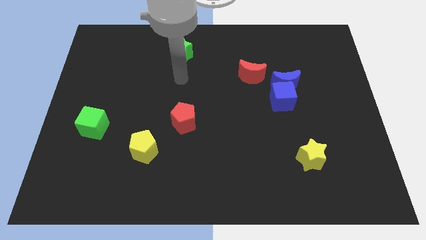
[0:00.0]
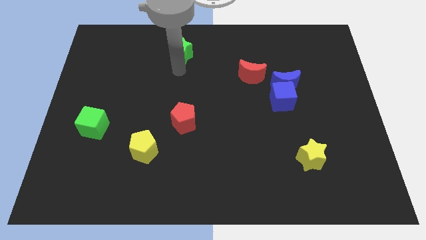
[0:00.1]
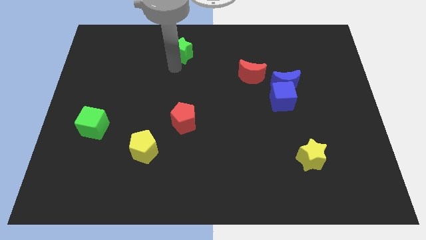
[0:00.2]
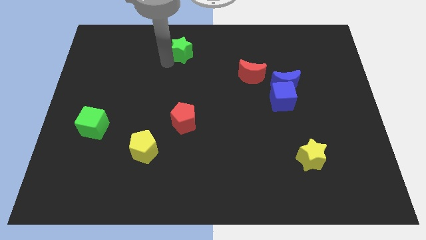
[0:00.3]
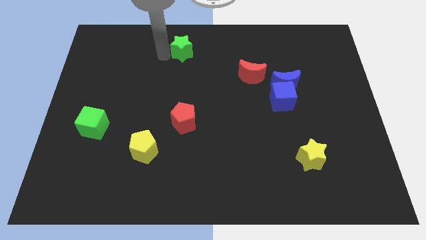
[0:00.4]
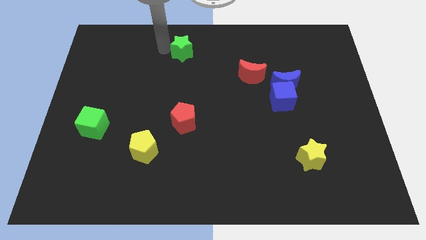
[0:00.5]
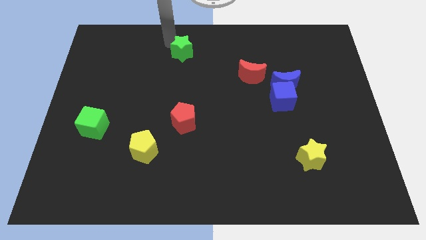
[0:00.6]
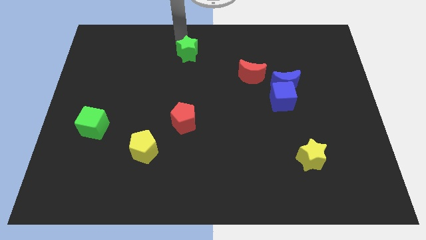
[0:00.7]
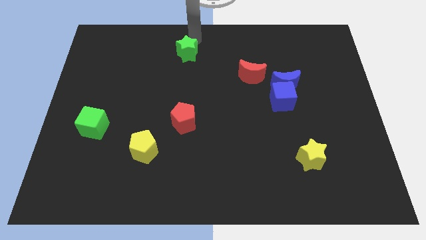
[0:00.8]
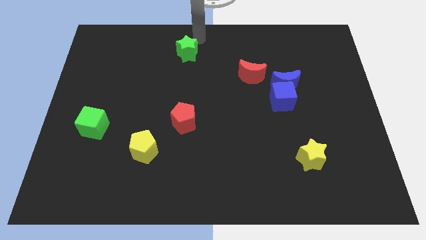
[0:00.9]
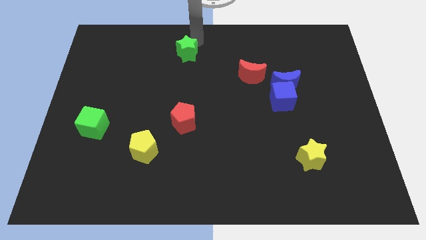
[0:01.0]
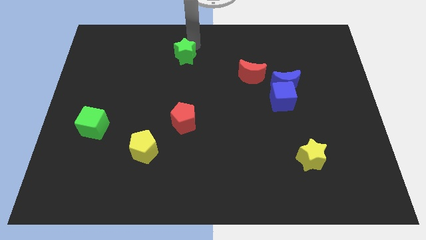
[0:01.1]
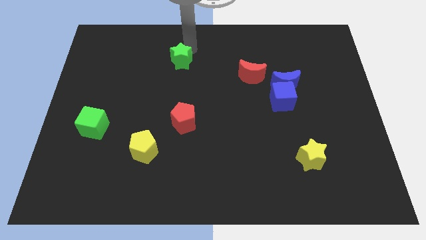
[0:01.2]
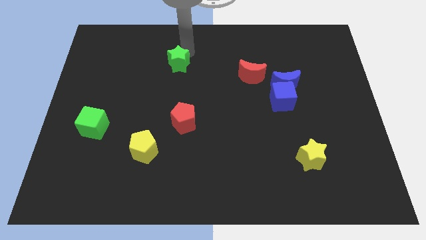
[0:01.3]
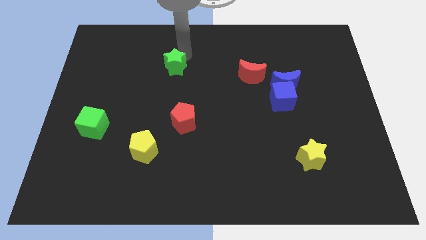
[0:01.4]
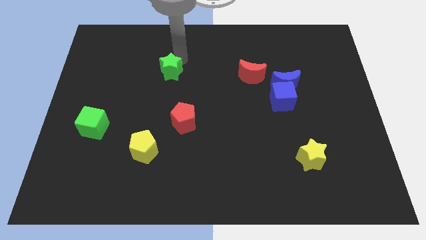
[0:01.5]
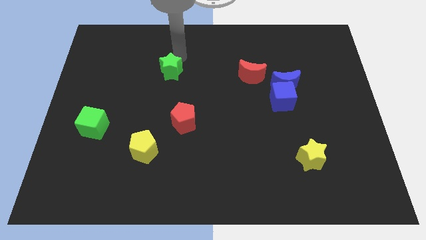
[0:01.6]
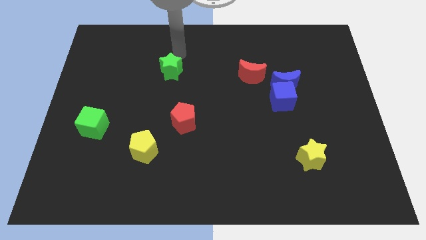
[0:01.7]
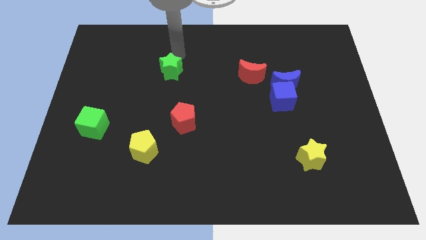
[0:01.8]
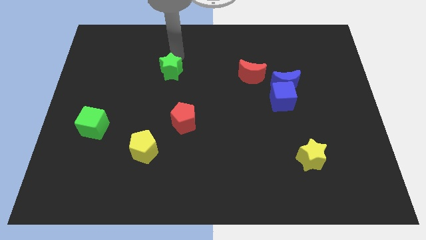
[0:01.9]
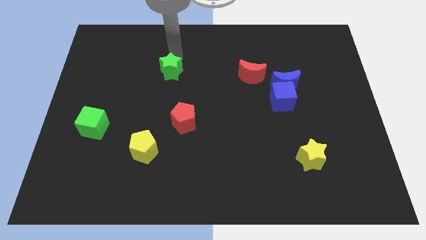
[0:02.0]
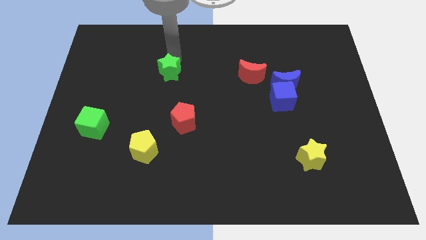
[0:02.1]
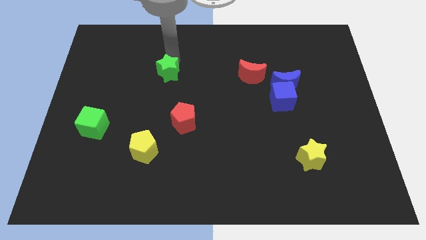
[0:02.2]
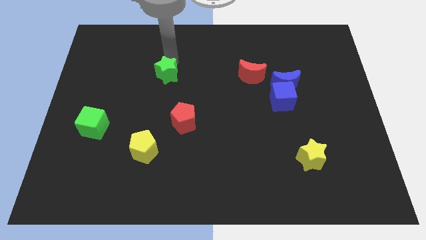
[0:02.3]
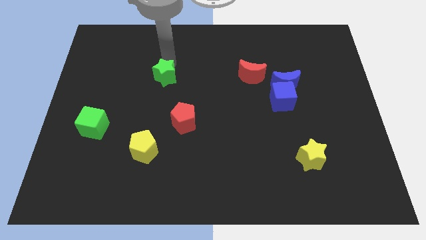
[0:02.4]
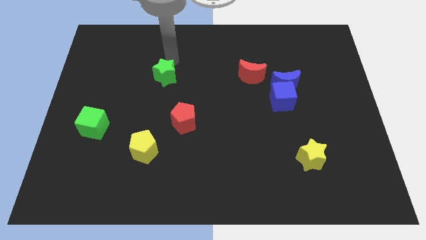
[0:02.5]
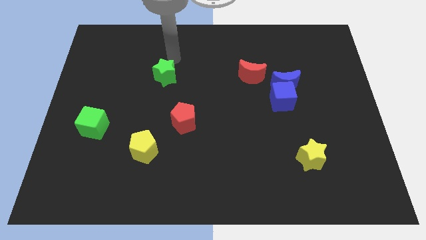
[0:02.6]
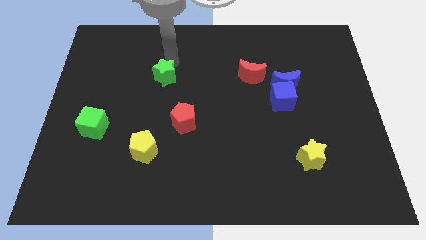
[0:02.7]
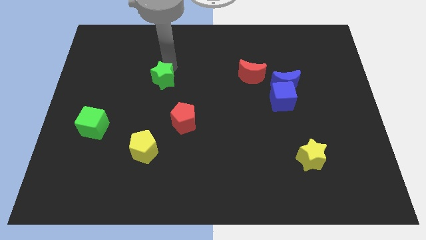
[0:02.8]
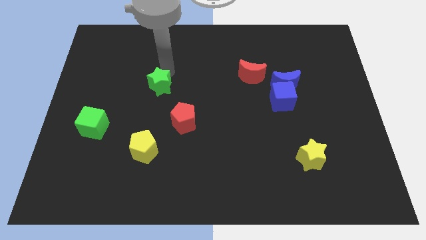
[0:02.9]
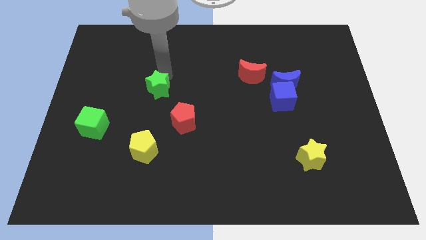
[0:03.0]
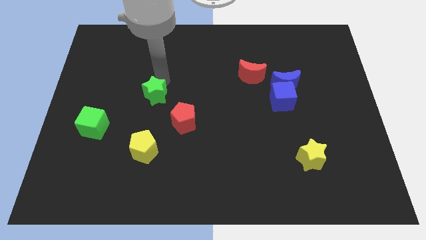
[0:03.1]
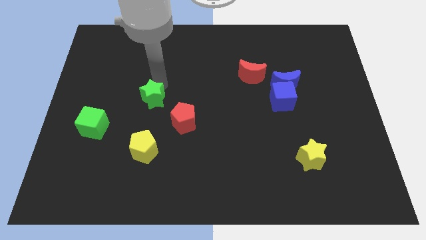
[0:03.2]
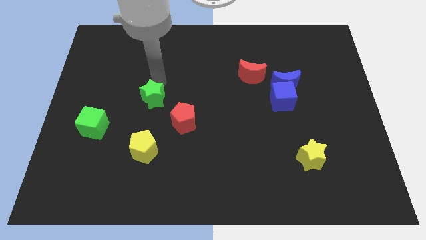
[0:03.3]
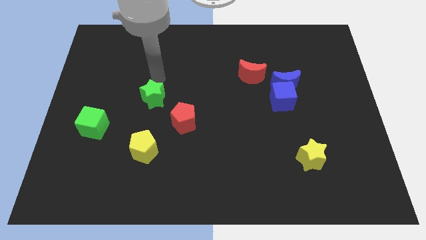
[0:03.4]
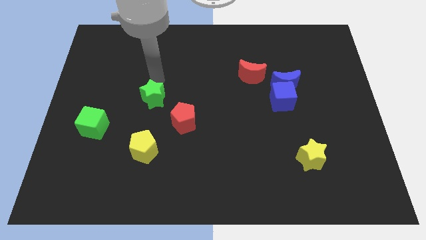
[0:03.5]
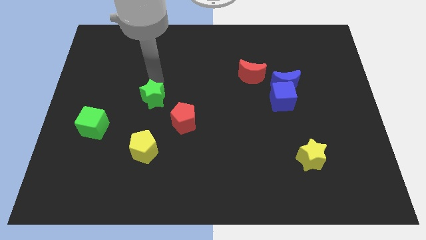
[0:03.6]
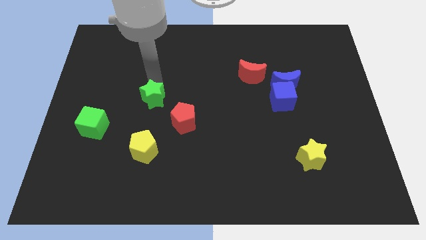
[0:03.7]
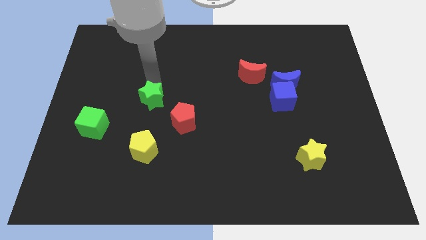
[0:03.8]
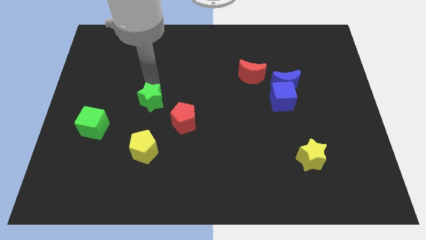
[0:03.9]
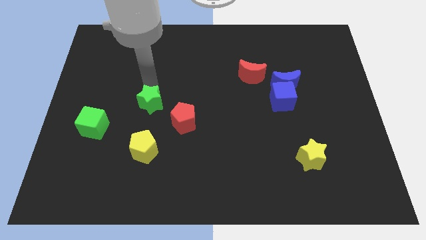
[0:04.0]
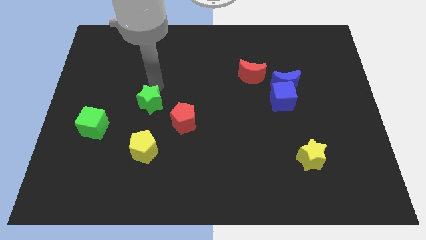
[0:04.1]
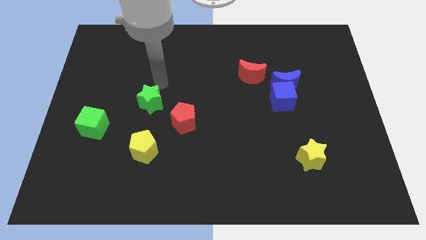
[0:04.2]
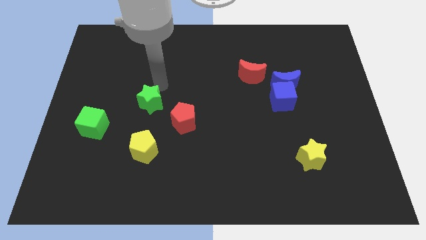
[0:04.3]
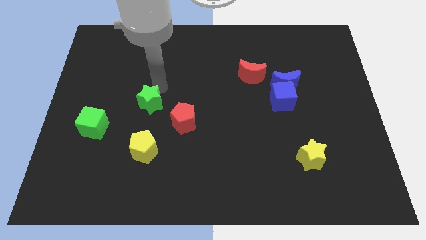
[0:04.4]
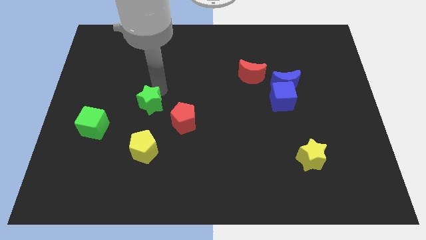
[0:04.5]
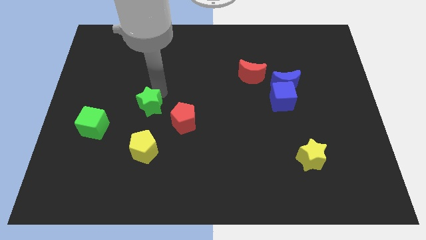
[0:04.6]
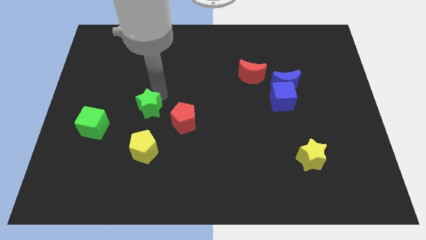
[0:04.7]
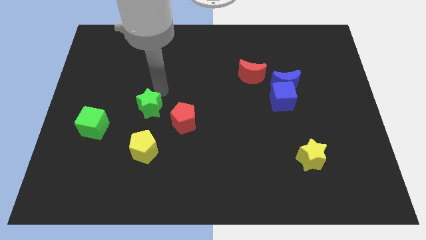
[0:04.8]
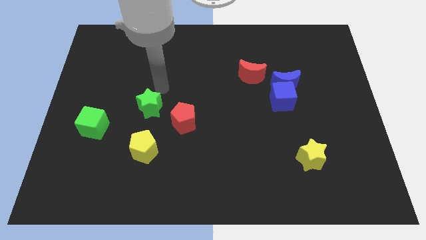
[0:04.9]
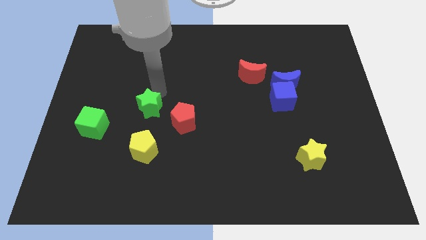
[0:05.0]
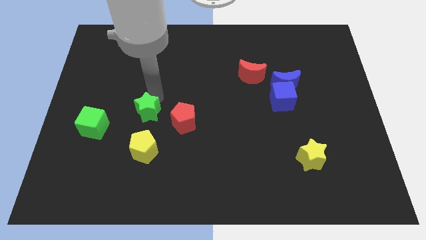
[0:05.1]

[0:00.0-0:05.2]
put the green star to the right side of the green cube

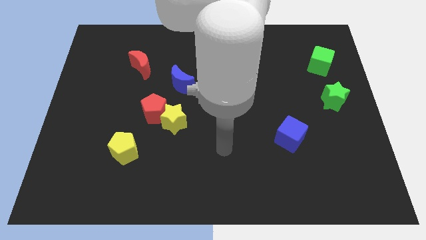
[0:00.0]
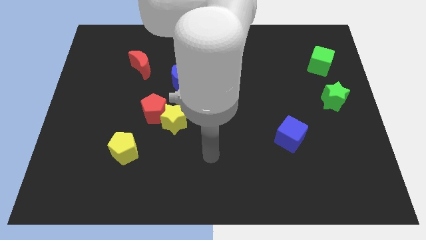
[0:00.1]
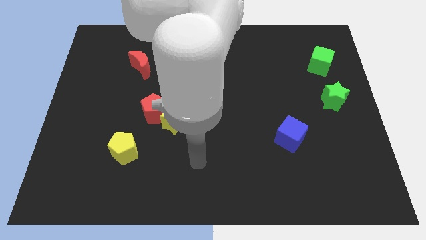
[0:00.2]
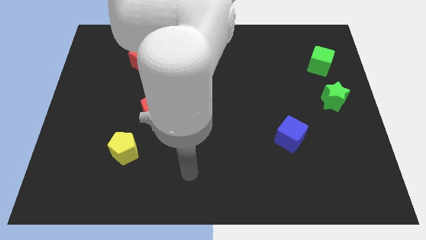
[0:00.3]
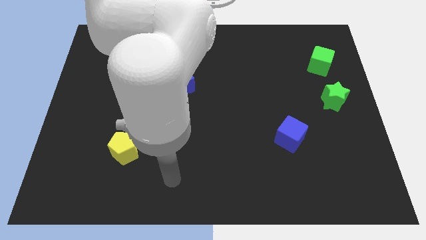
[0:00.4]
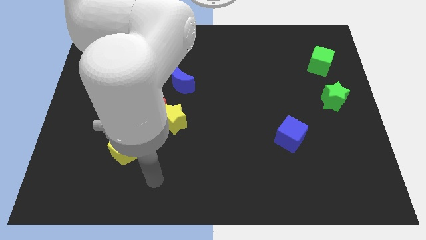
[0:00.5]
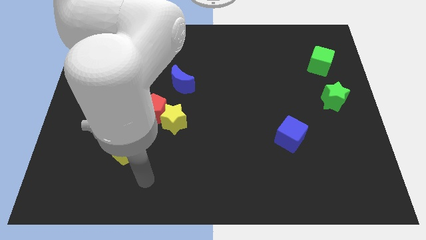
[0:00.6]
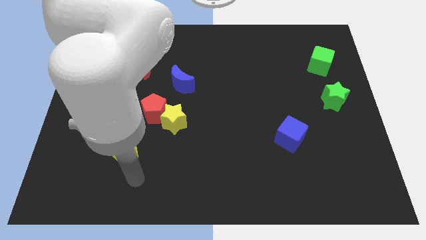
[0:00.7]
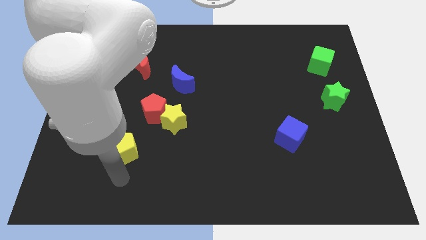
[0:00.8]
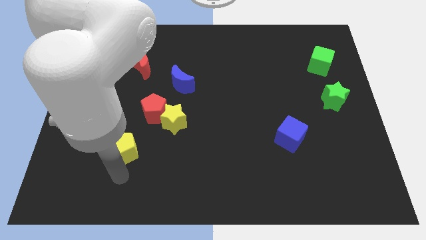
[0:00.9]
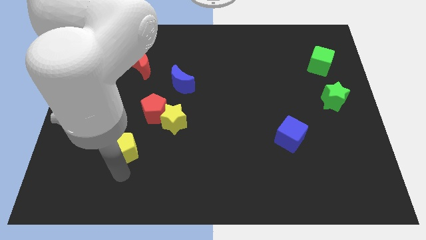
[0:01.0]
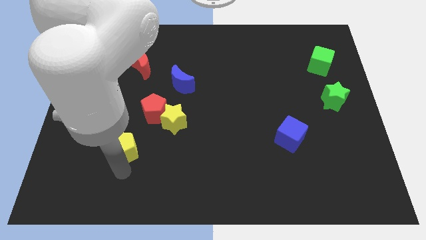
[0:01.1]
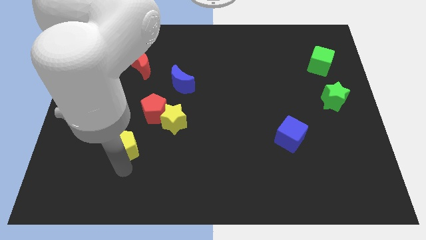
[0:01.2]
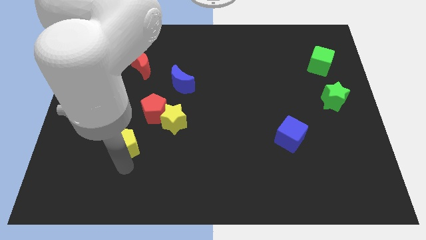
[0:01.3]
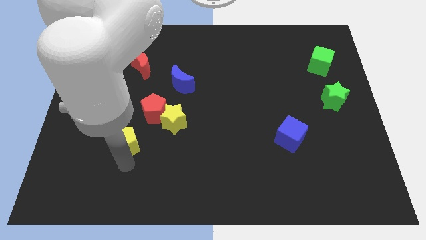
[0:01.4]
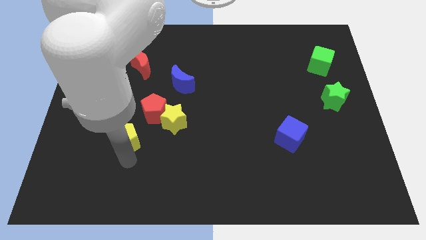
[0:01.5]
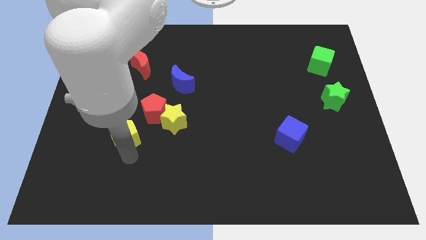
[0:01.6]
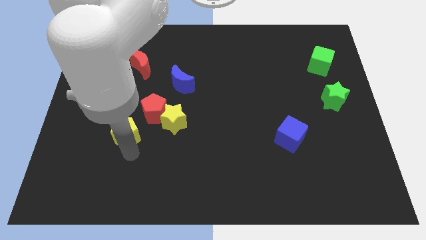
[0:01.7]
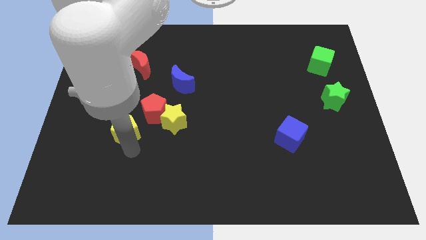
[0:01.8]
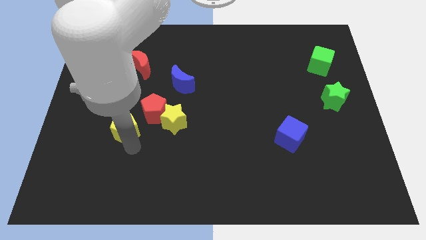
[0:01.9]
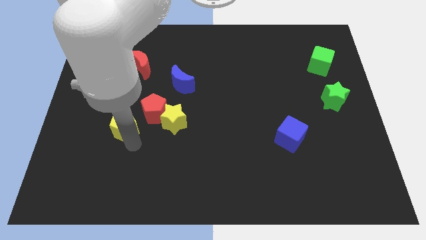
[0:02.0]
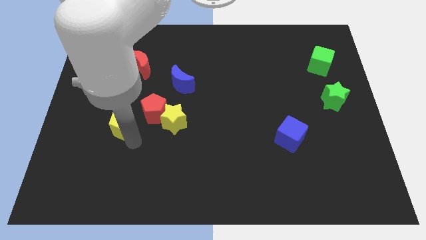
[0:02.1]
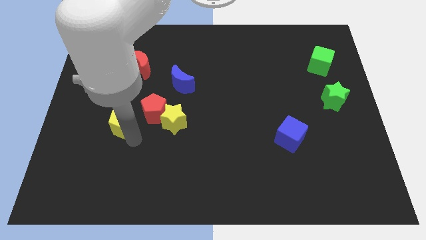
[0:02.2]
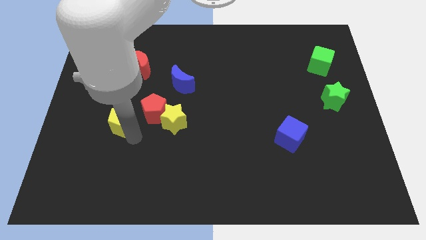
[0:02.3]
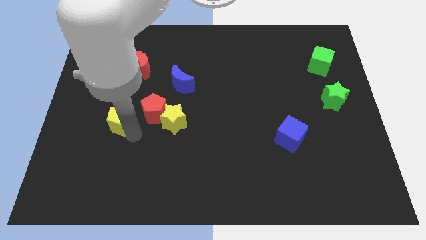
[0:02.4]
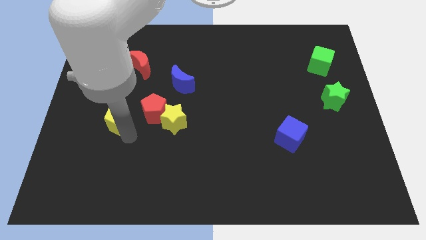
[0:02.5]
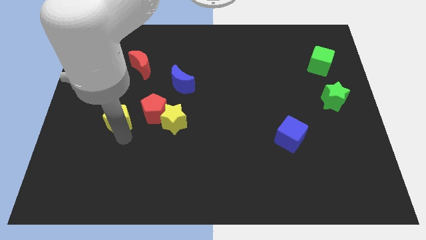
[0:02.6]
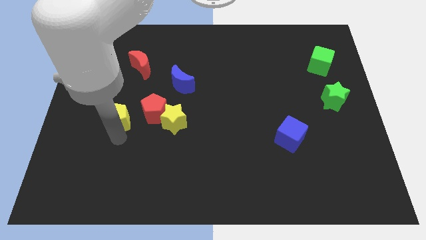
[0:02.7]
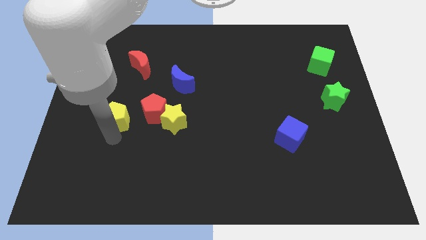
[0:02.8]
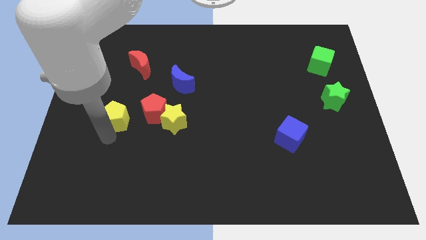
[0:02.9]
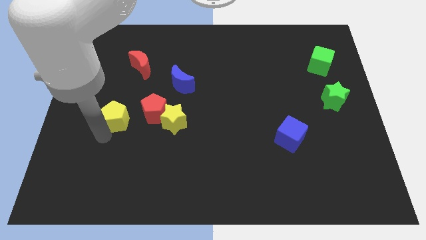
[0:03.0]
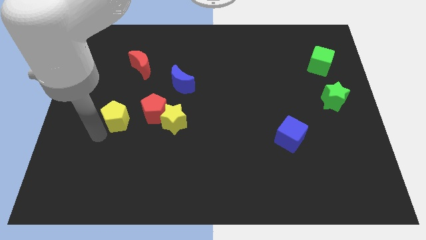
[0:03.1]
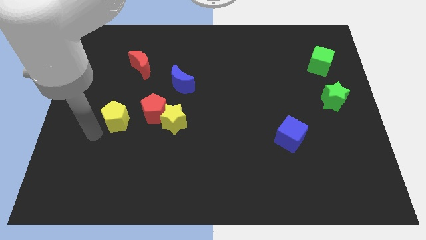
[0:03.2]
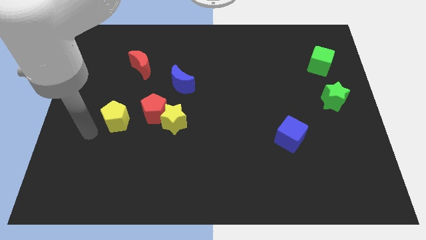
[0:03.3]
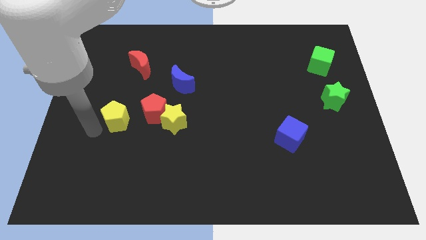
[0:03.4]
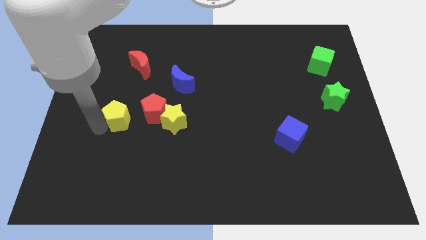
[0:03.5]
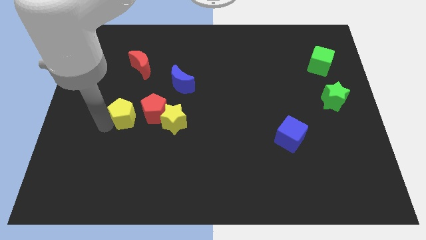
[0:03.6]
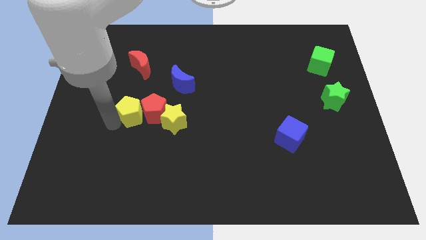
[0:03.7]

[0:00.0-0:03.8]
slide the yellow pentagon below the red moon
